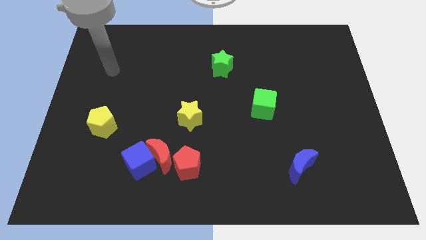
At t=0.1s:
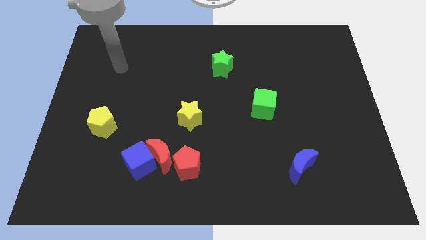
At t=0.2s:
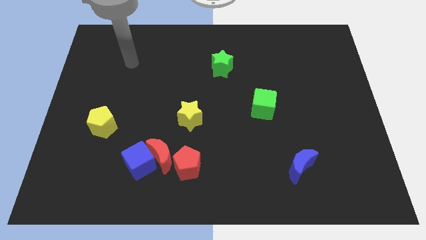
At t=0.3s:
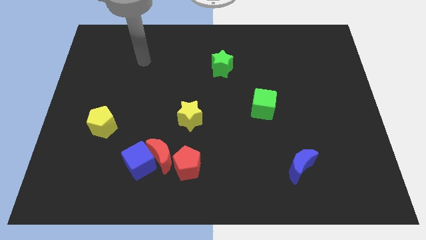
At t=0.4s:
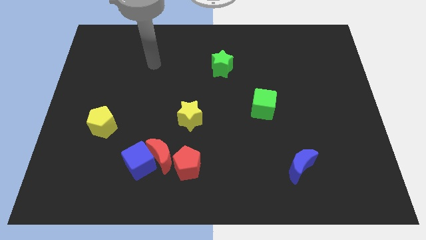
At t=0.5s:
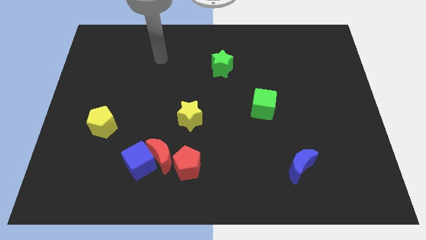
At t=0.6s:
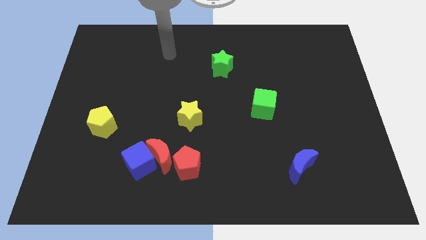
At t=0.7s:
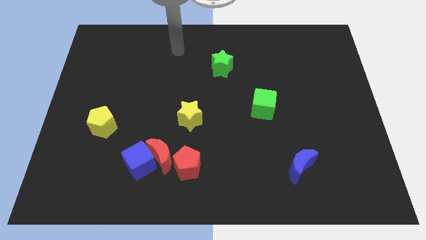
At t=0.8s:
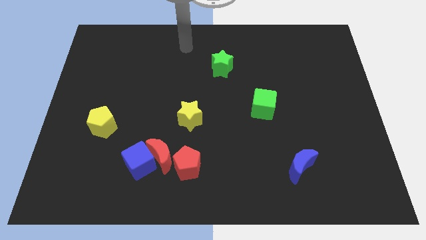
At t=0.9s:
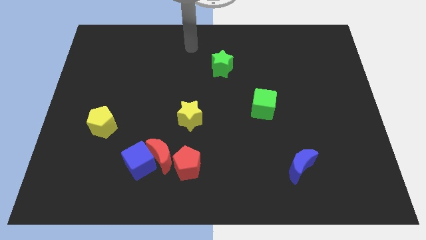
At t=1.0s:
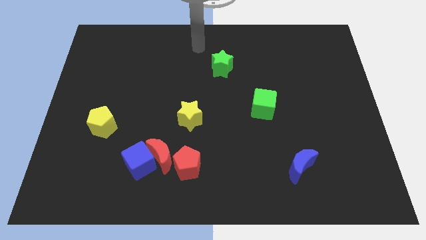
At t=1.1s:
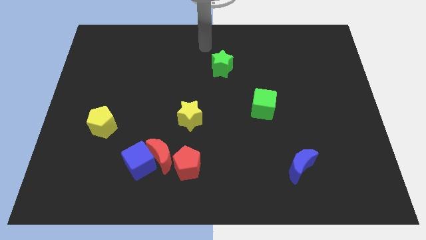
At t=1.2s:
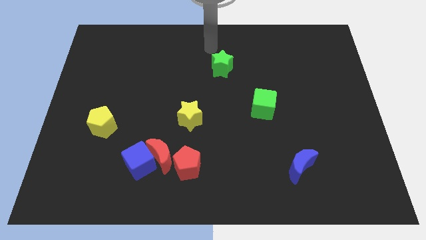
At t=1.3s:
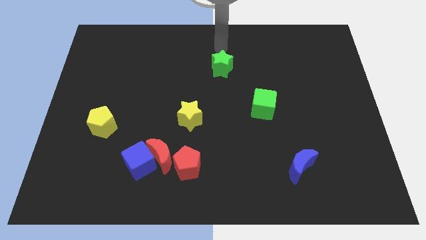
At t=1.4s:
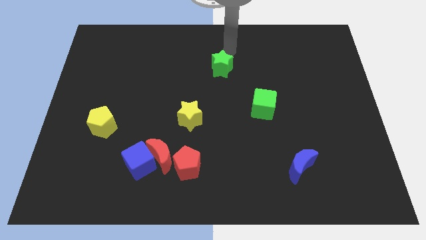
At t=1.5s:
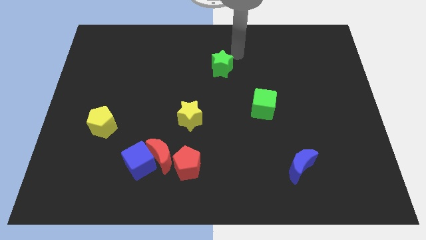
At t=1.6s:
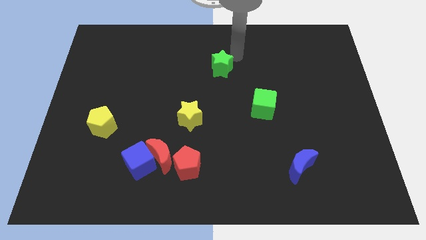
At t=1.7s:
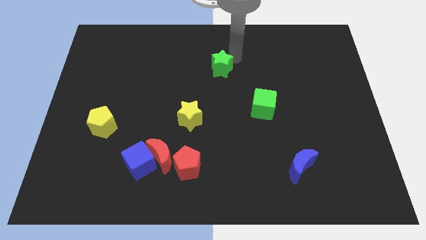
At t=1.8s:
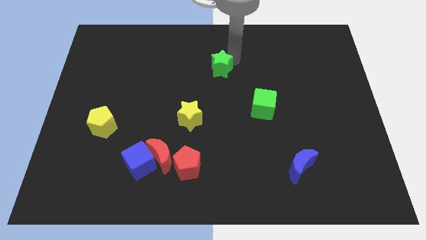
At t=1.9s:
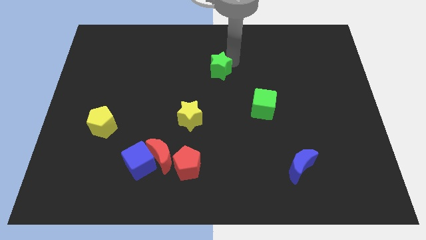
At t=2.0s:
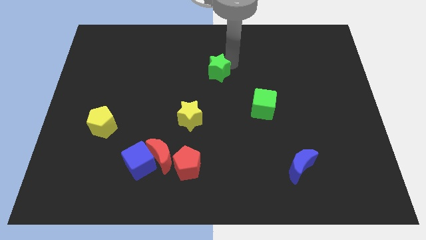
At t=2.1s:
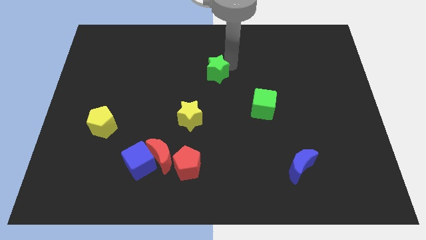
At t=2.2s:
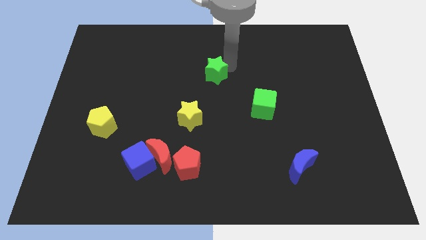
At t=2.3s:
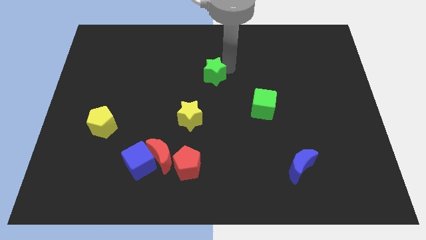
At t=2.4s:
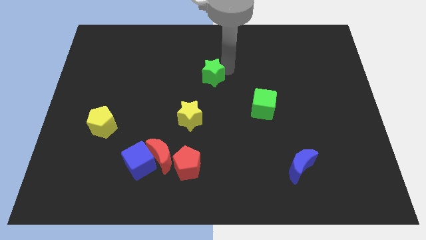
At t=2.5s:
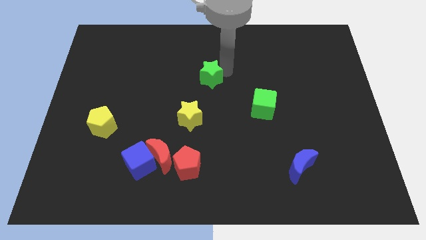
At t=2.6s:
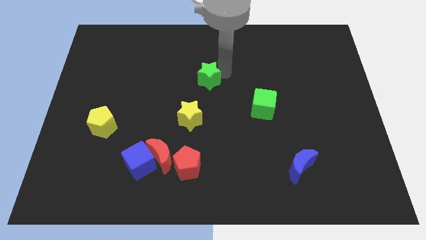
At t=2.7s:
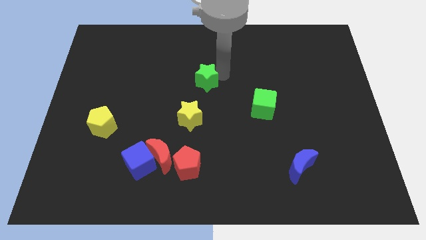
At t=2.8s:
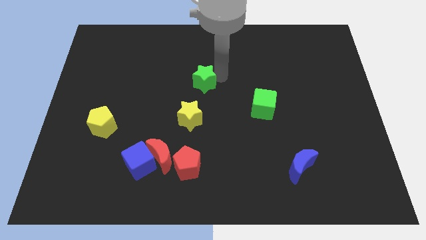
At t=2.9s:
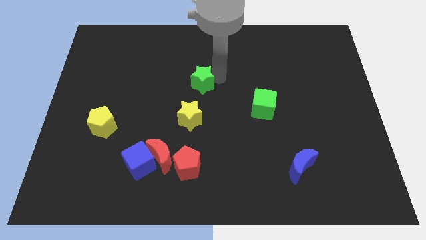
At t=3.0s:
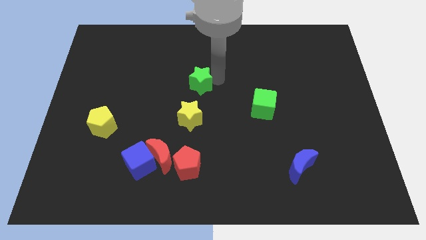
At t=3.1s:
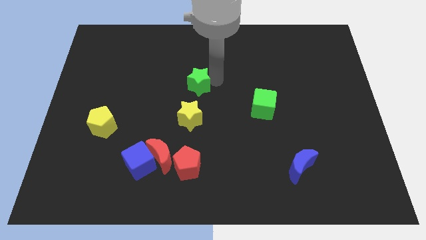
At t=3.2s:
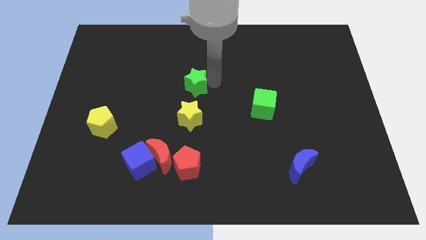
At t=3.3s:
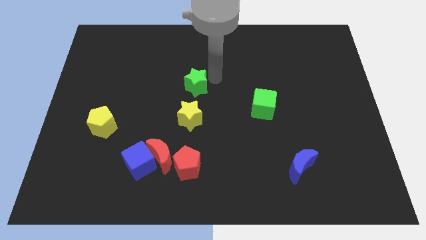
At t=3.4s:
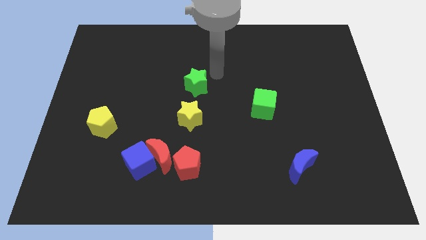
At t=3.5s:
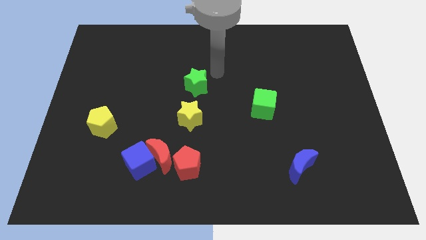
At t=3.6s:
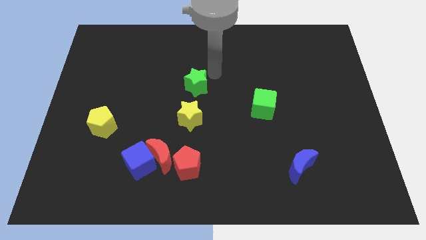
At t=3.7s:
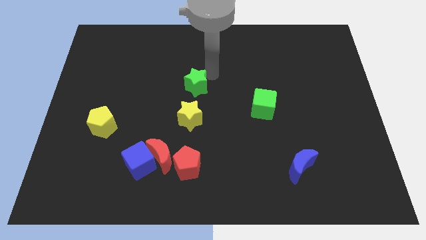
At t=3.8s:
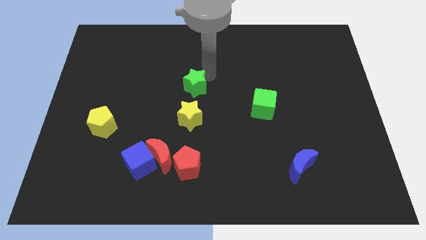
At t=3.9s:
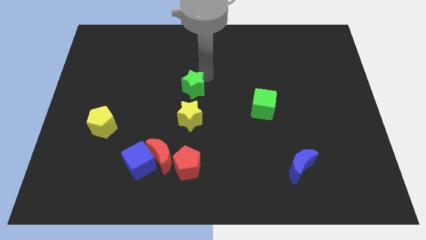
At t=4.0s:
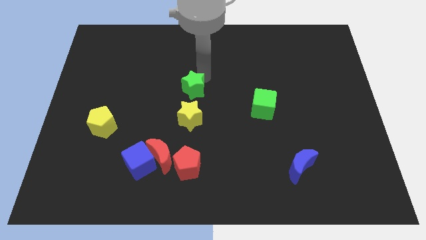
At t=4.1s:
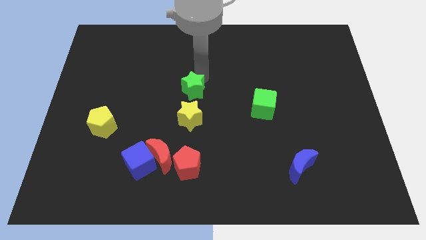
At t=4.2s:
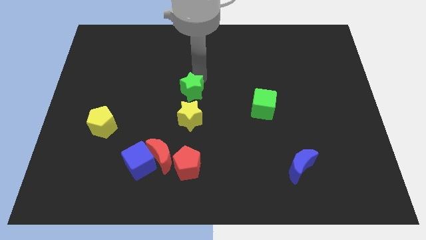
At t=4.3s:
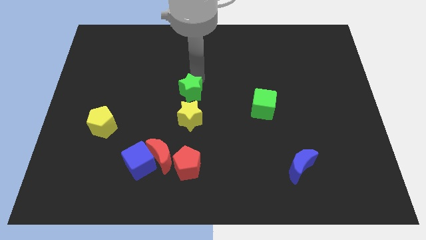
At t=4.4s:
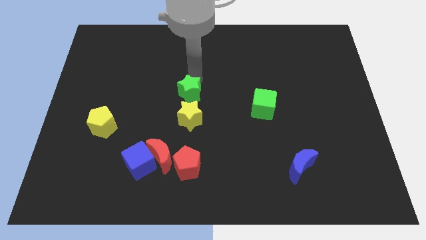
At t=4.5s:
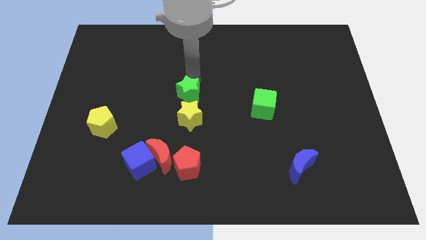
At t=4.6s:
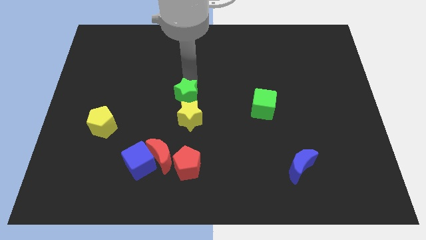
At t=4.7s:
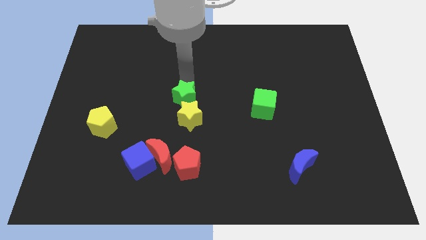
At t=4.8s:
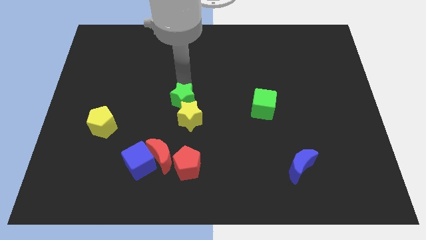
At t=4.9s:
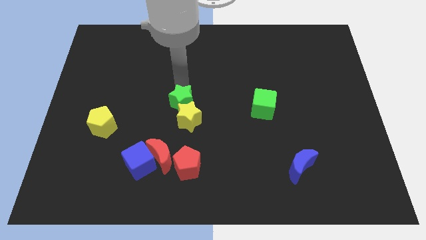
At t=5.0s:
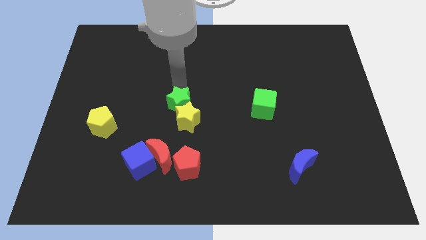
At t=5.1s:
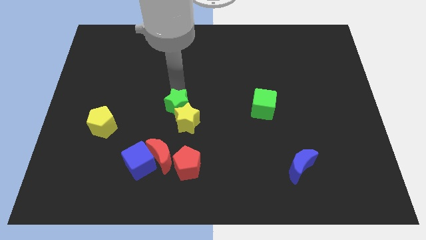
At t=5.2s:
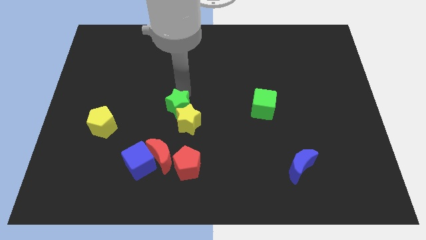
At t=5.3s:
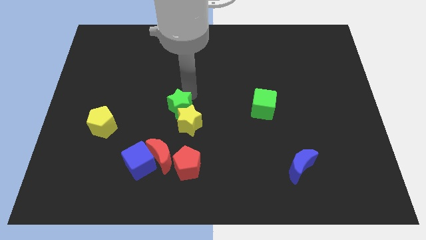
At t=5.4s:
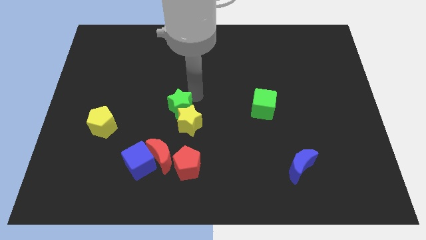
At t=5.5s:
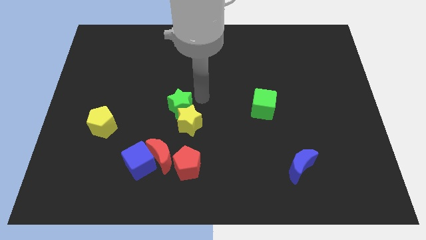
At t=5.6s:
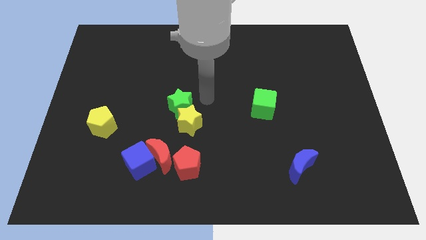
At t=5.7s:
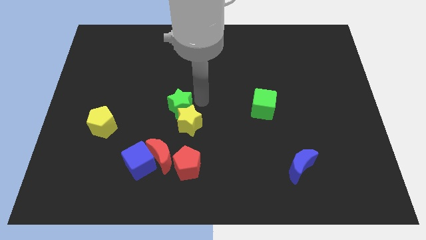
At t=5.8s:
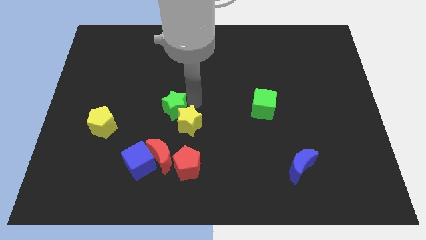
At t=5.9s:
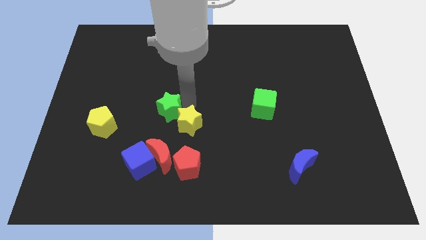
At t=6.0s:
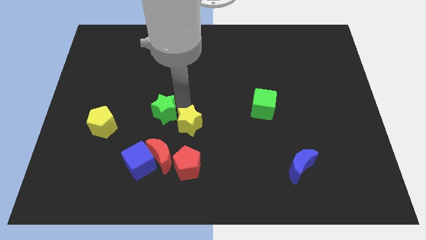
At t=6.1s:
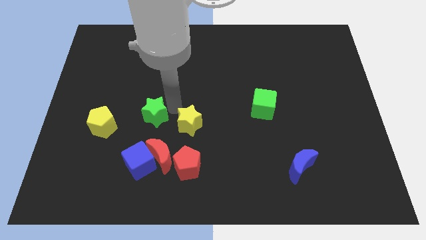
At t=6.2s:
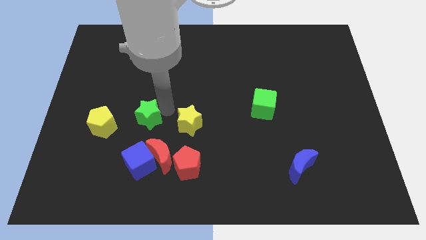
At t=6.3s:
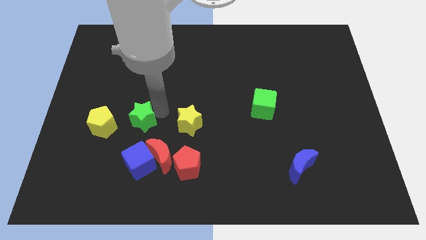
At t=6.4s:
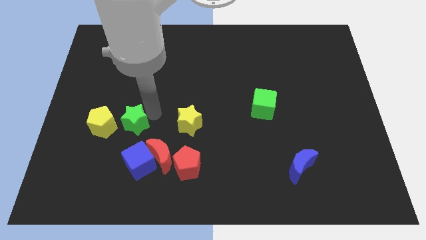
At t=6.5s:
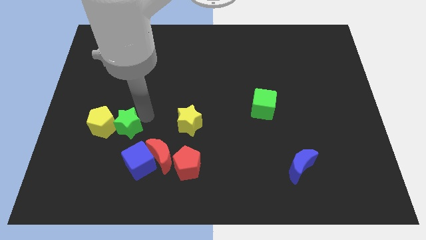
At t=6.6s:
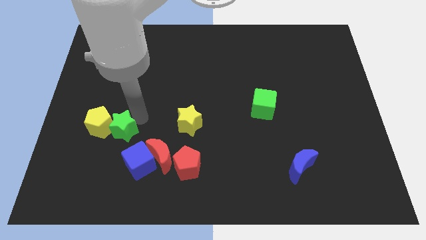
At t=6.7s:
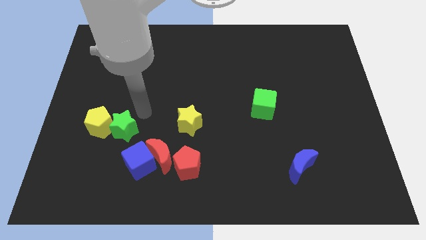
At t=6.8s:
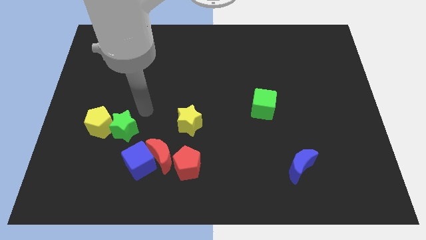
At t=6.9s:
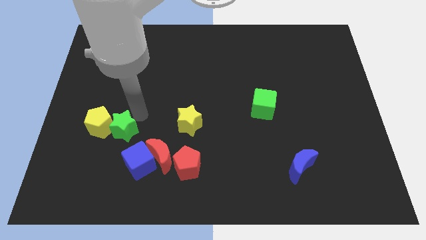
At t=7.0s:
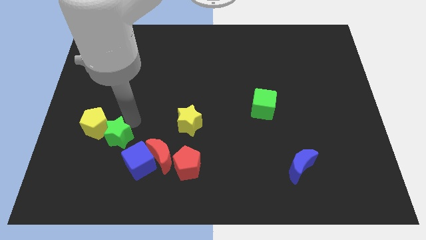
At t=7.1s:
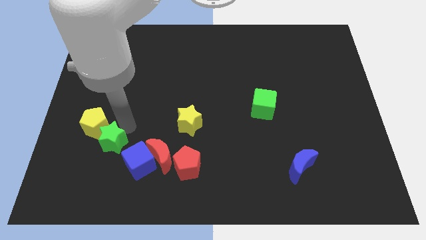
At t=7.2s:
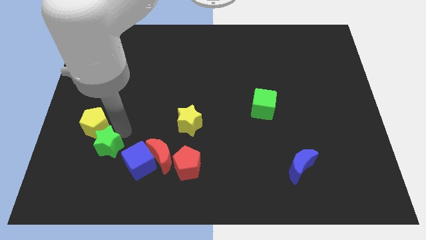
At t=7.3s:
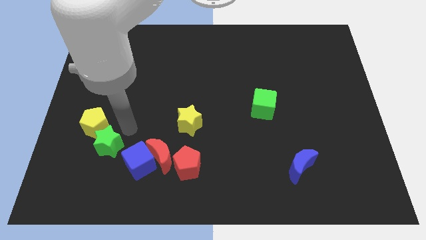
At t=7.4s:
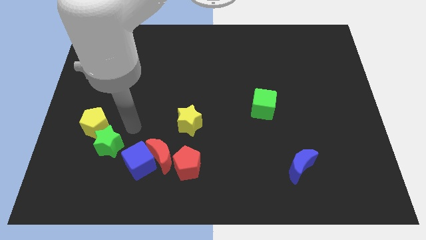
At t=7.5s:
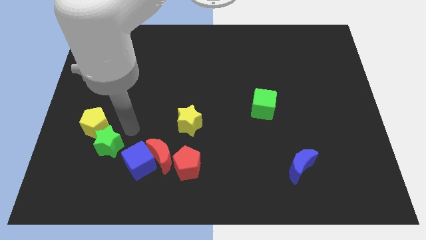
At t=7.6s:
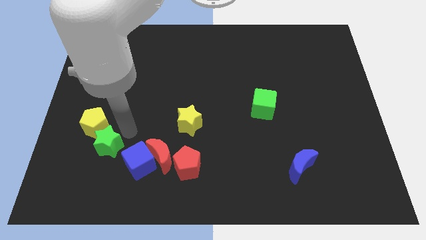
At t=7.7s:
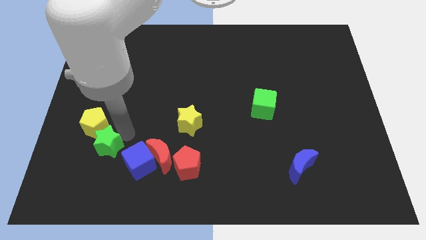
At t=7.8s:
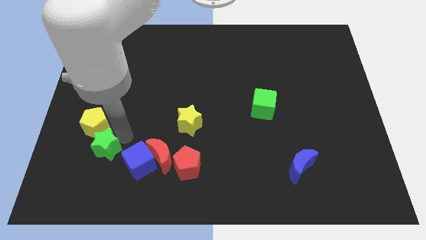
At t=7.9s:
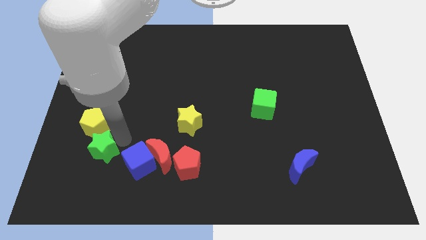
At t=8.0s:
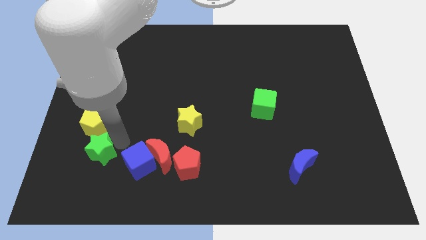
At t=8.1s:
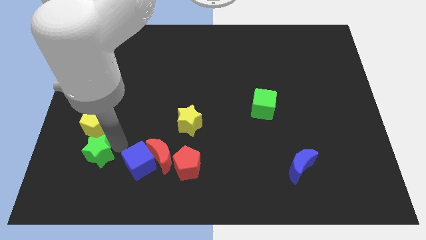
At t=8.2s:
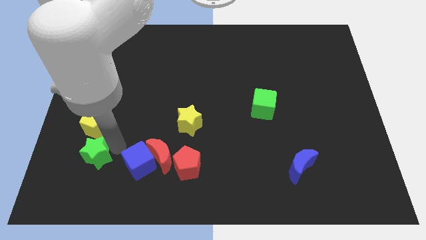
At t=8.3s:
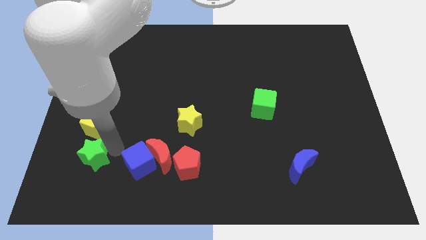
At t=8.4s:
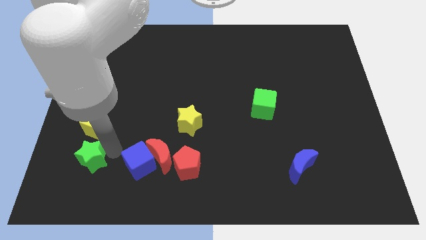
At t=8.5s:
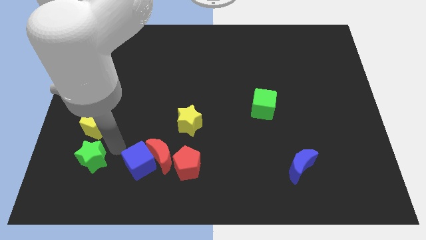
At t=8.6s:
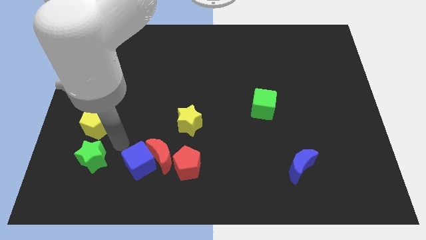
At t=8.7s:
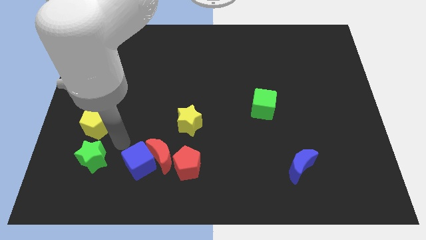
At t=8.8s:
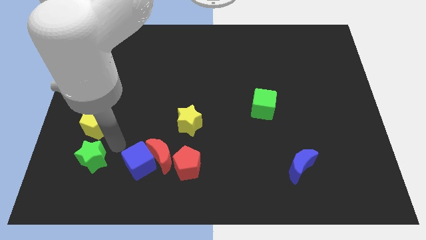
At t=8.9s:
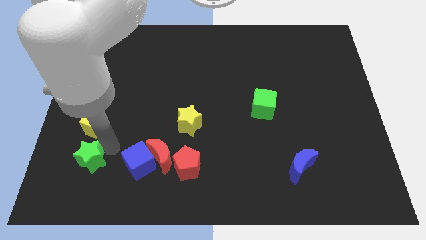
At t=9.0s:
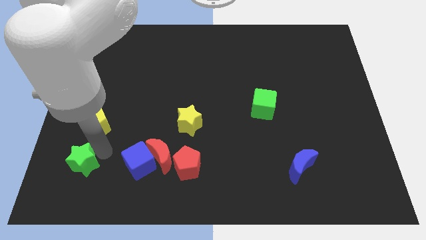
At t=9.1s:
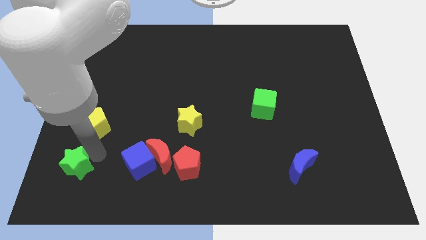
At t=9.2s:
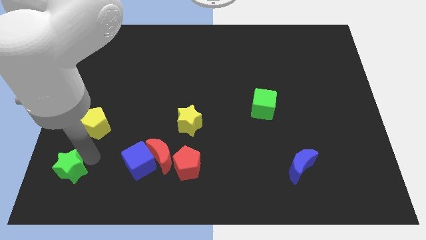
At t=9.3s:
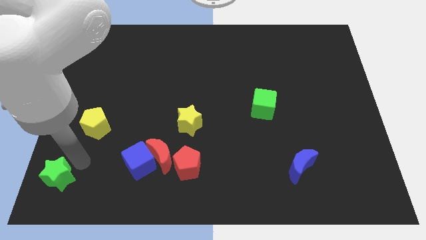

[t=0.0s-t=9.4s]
put the green star to the bottom left of the board
